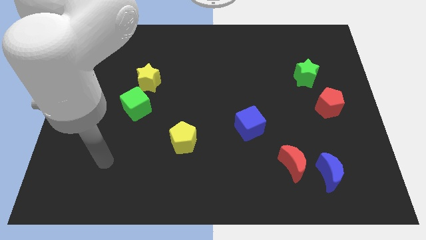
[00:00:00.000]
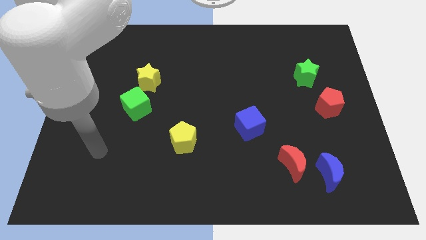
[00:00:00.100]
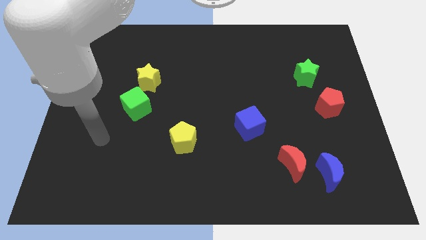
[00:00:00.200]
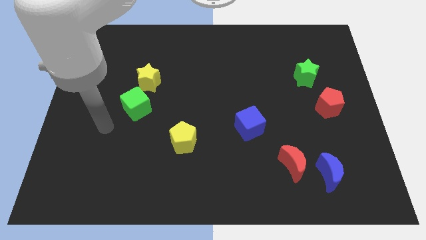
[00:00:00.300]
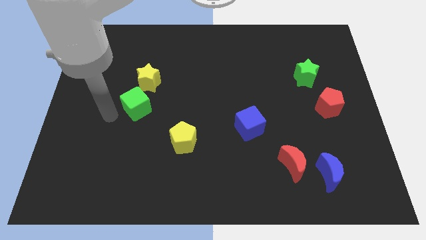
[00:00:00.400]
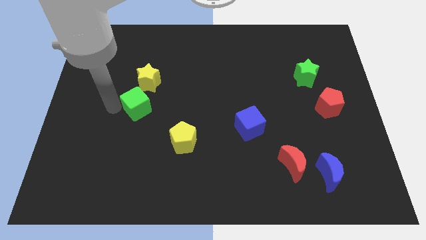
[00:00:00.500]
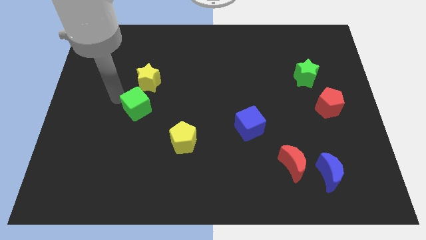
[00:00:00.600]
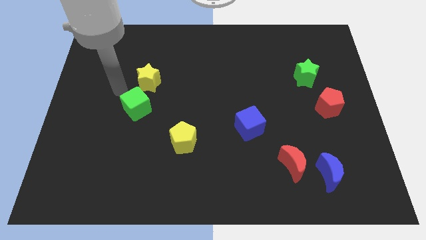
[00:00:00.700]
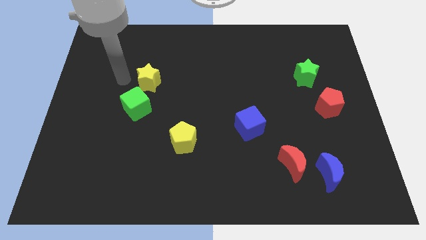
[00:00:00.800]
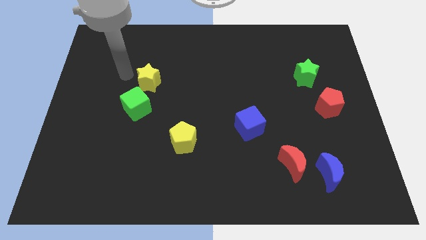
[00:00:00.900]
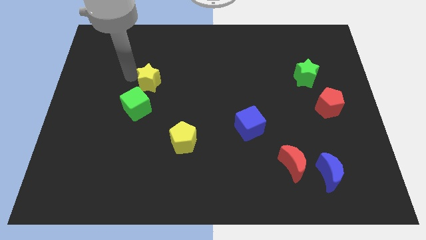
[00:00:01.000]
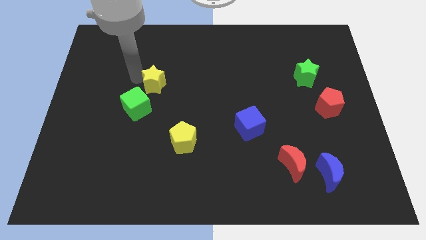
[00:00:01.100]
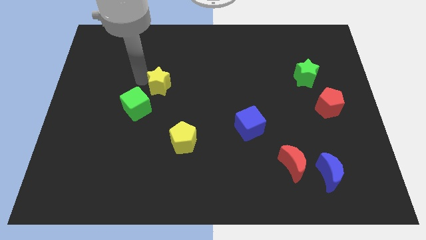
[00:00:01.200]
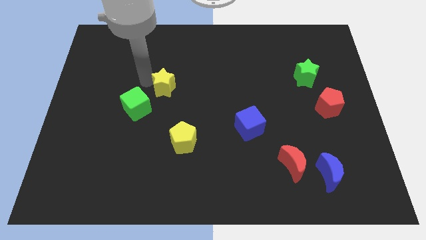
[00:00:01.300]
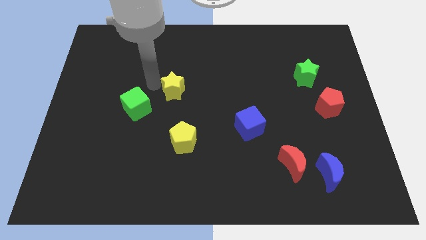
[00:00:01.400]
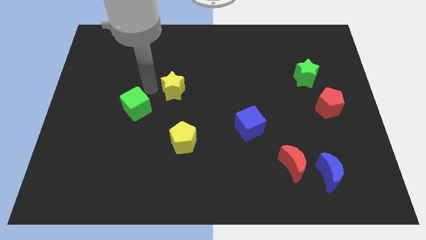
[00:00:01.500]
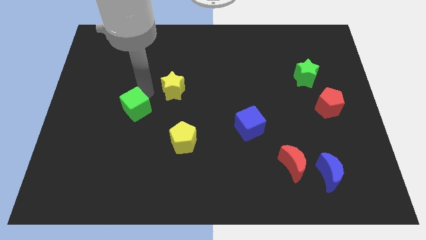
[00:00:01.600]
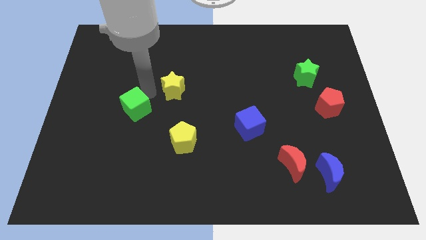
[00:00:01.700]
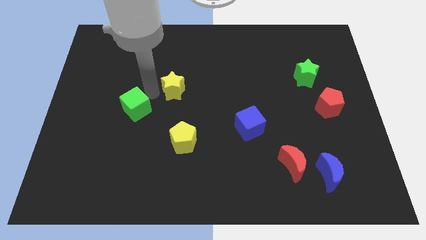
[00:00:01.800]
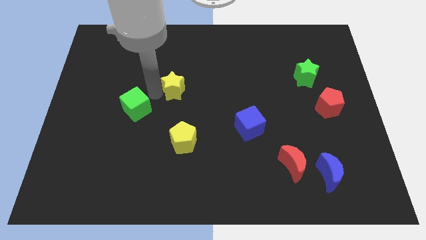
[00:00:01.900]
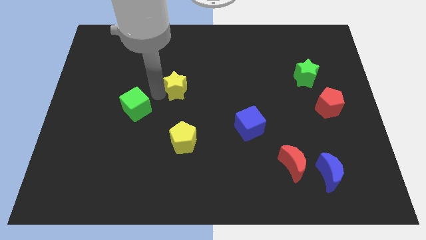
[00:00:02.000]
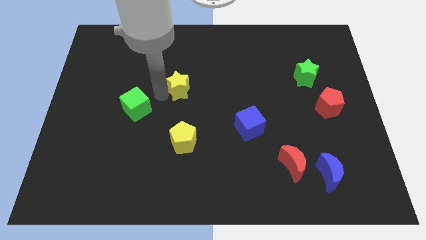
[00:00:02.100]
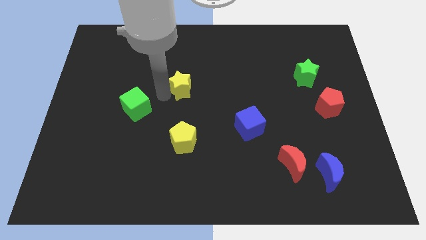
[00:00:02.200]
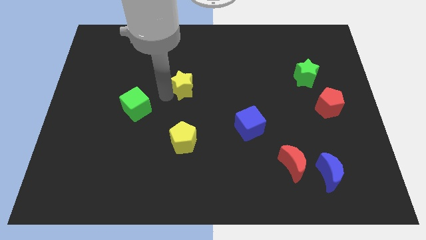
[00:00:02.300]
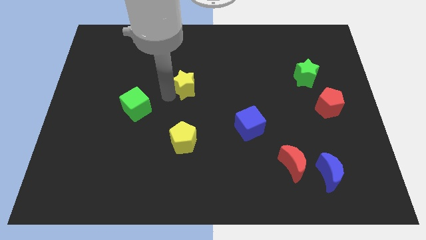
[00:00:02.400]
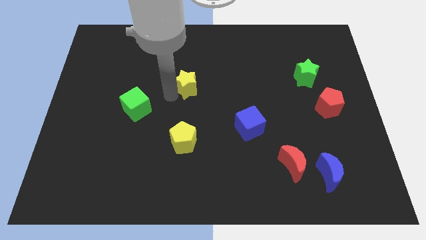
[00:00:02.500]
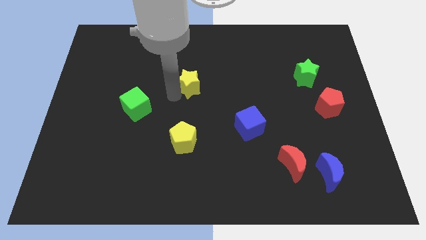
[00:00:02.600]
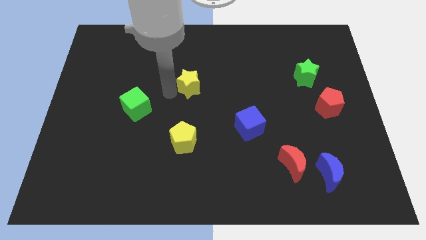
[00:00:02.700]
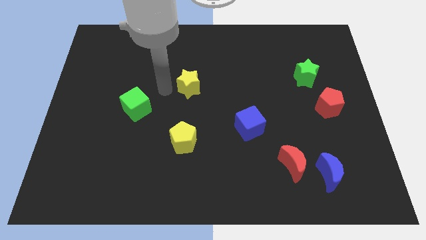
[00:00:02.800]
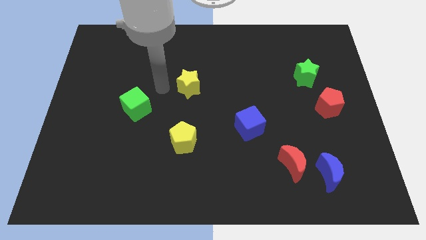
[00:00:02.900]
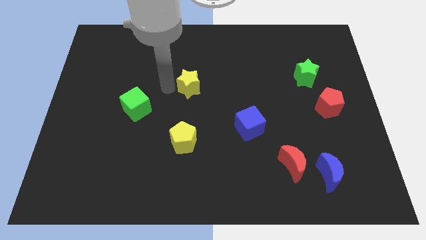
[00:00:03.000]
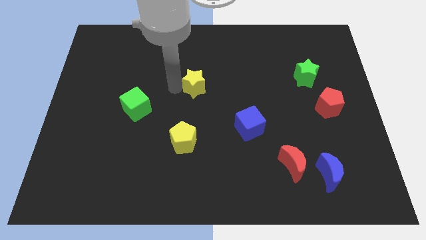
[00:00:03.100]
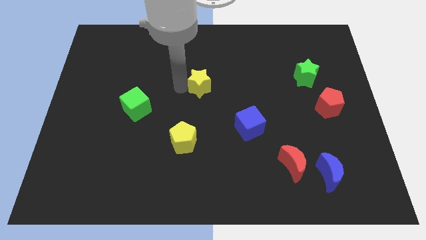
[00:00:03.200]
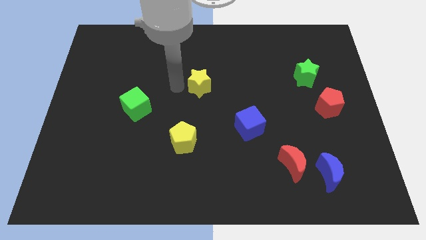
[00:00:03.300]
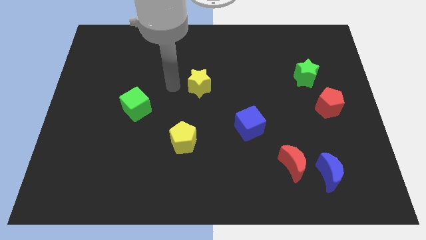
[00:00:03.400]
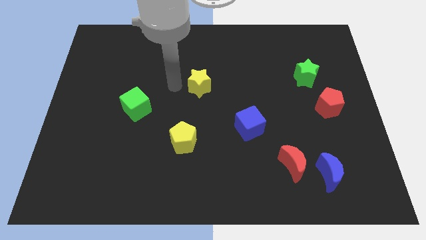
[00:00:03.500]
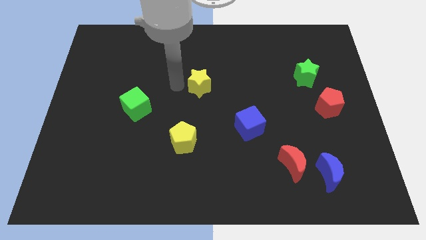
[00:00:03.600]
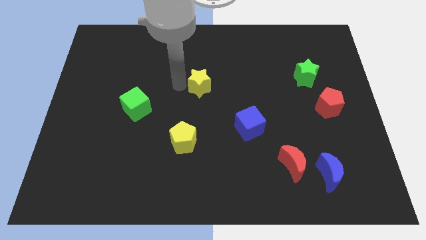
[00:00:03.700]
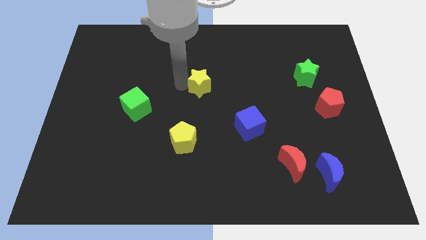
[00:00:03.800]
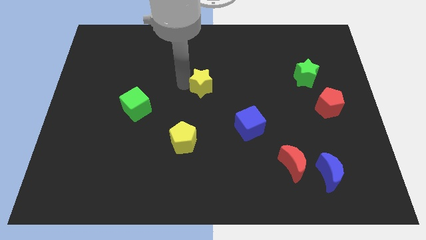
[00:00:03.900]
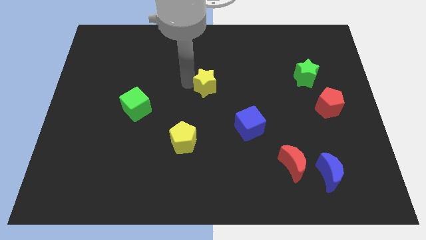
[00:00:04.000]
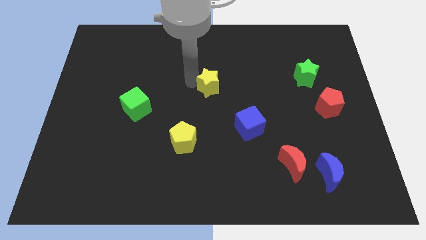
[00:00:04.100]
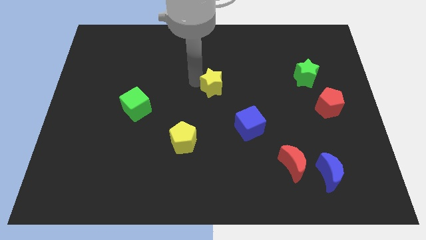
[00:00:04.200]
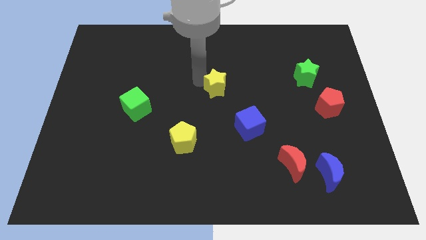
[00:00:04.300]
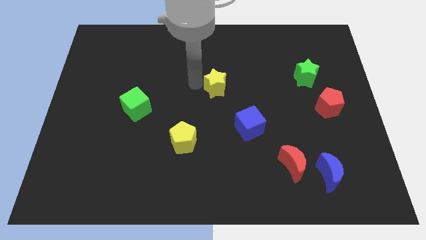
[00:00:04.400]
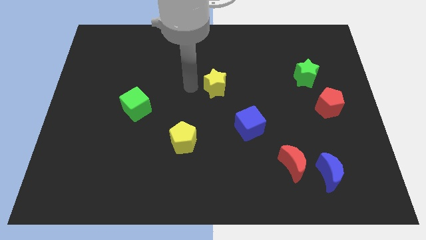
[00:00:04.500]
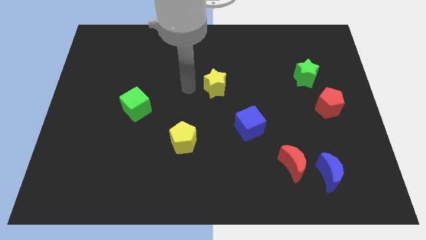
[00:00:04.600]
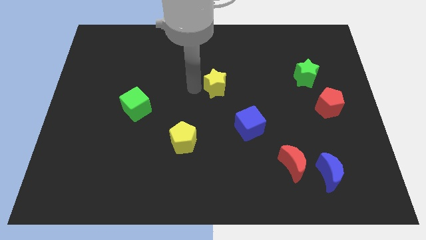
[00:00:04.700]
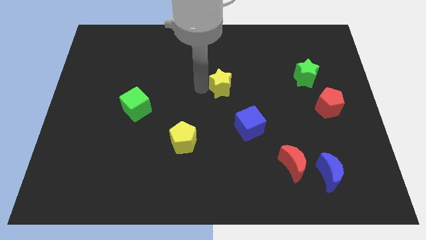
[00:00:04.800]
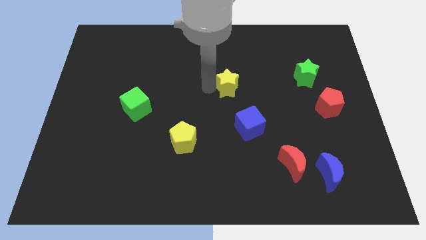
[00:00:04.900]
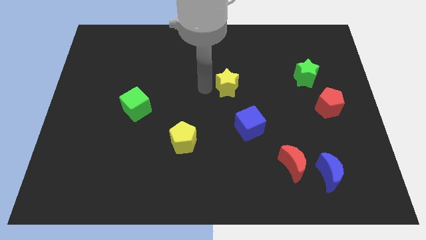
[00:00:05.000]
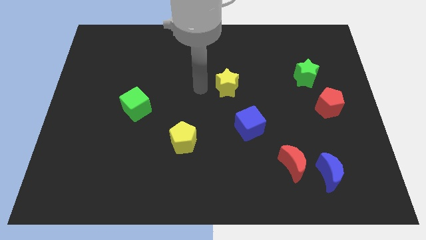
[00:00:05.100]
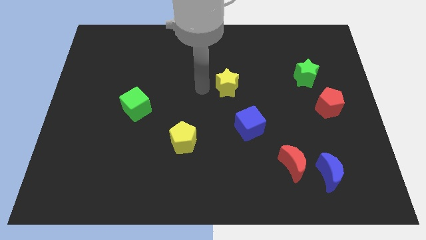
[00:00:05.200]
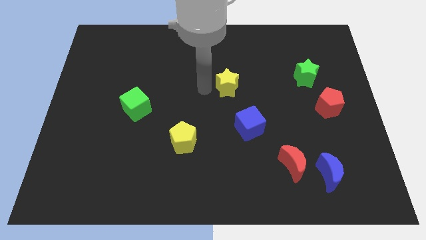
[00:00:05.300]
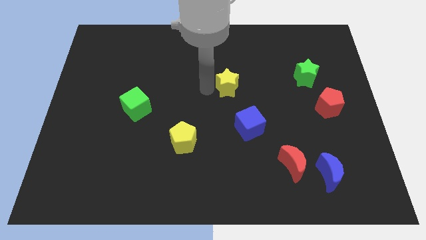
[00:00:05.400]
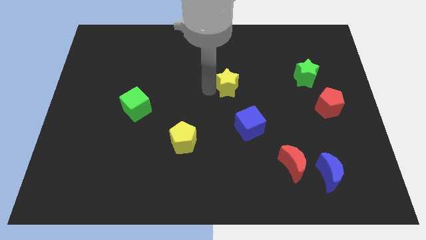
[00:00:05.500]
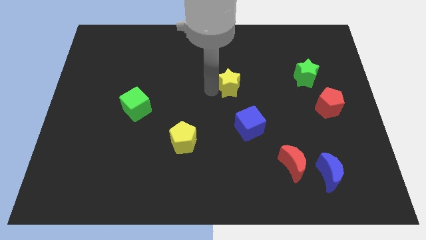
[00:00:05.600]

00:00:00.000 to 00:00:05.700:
slide the yellow star right

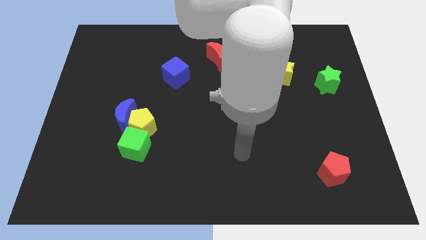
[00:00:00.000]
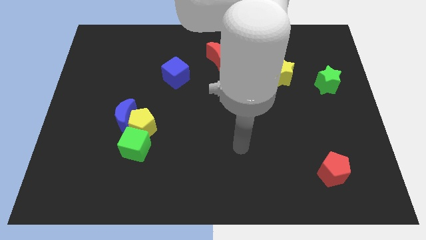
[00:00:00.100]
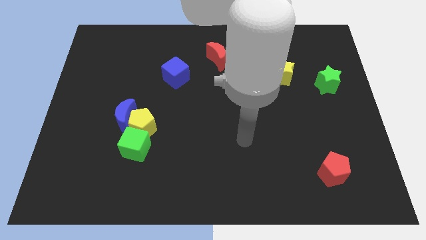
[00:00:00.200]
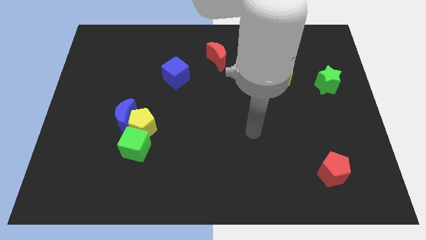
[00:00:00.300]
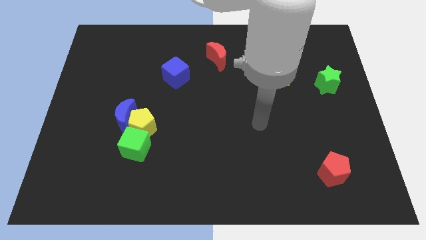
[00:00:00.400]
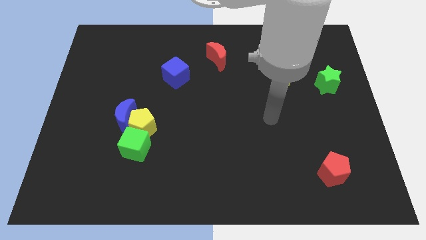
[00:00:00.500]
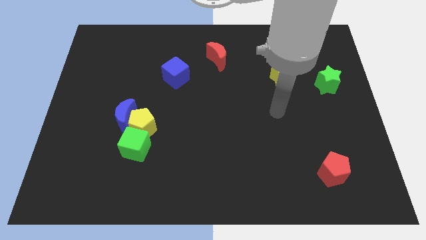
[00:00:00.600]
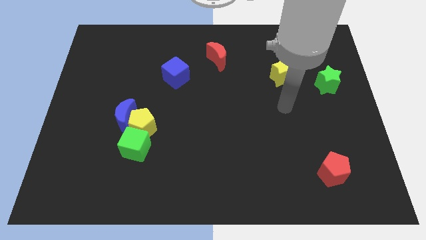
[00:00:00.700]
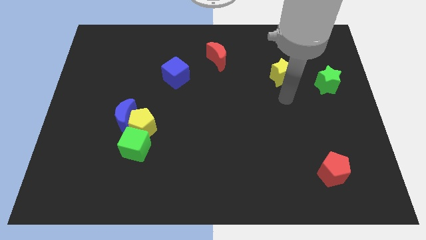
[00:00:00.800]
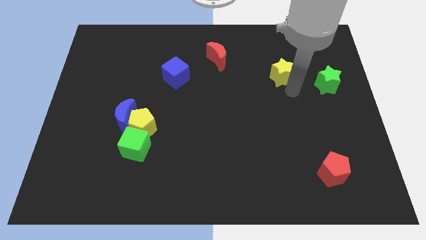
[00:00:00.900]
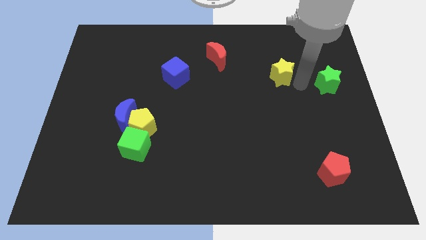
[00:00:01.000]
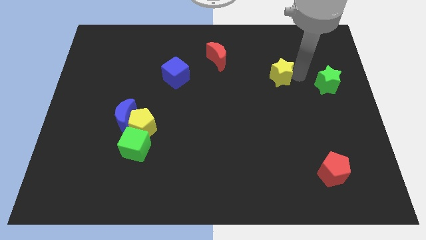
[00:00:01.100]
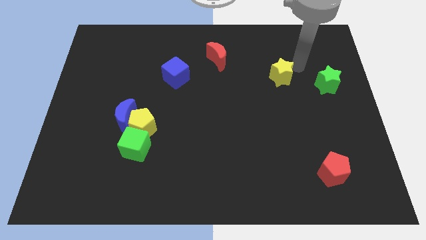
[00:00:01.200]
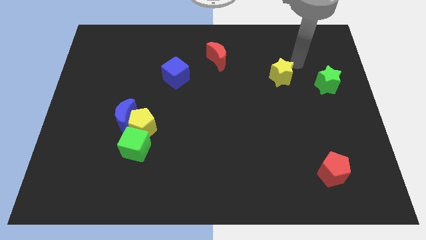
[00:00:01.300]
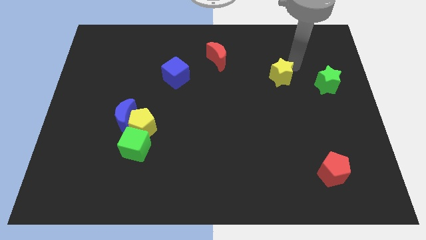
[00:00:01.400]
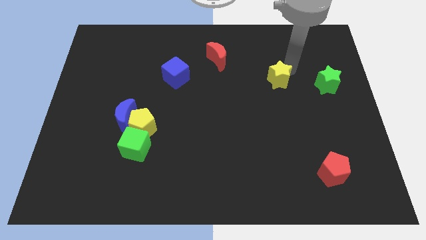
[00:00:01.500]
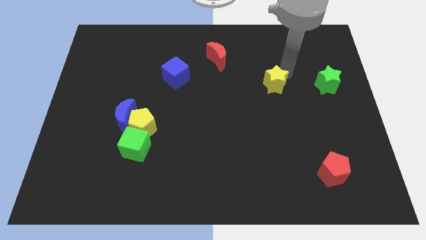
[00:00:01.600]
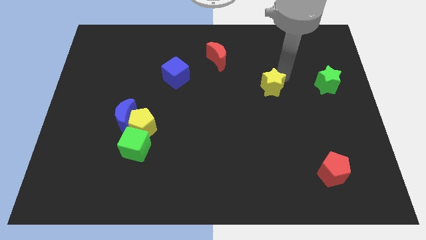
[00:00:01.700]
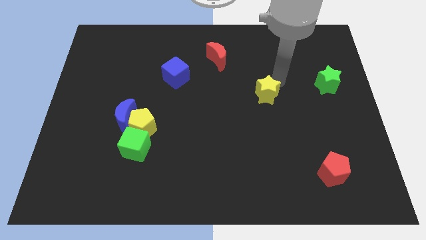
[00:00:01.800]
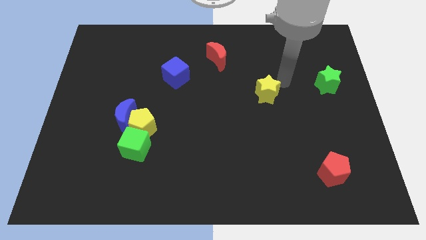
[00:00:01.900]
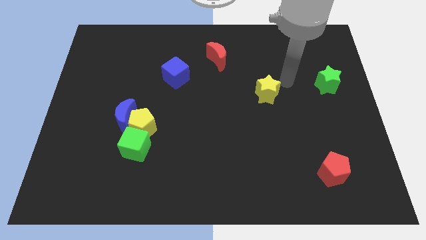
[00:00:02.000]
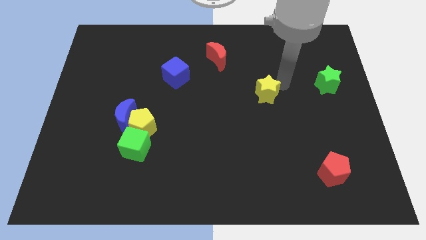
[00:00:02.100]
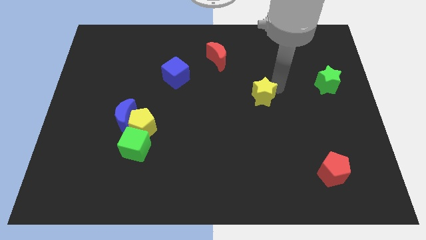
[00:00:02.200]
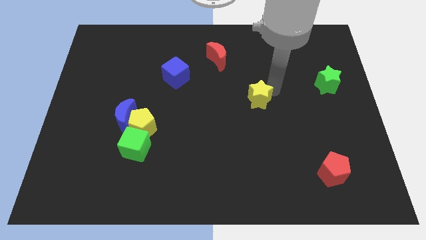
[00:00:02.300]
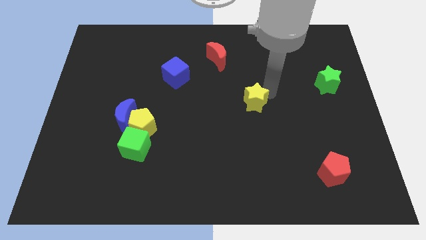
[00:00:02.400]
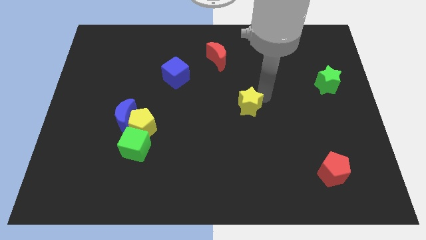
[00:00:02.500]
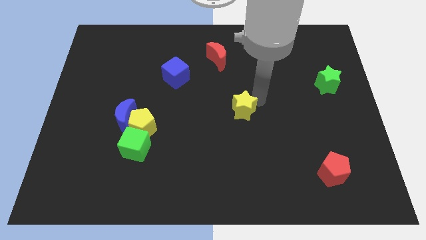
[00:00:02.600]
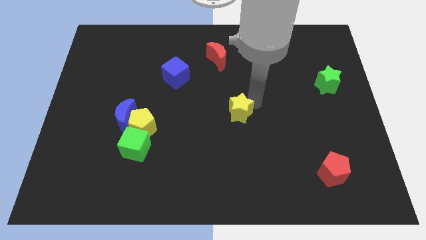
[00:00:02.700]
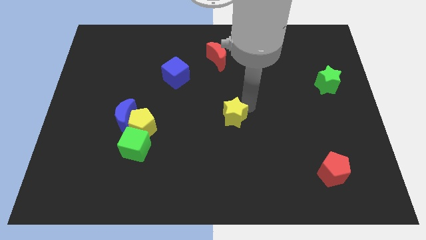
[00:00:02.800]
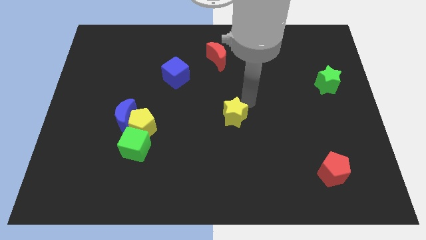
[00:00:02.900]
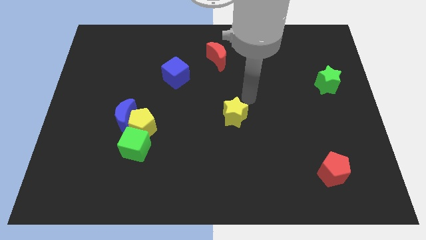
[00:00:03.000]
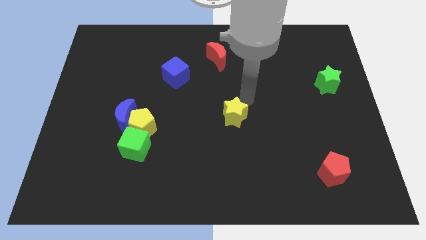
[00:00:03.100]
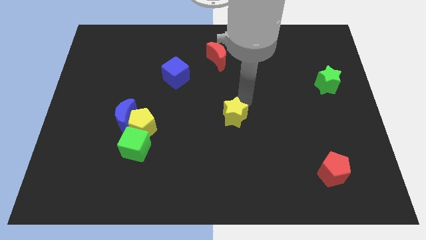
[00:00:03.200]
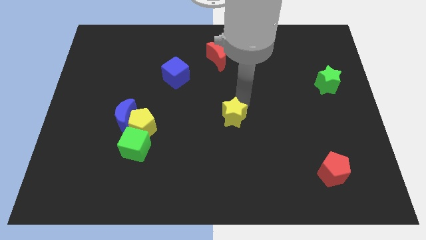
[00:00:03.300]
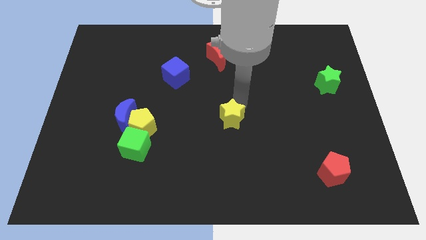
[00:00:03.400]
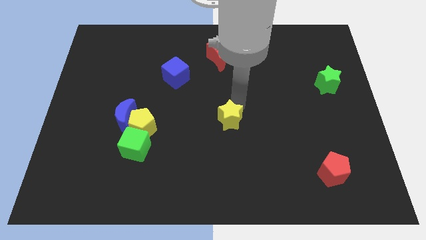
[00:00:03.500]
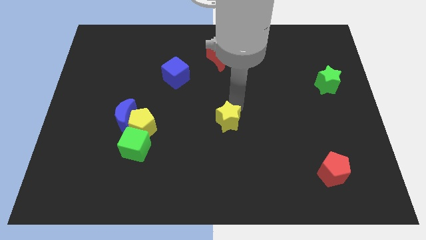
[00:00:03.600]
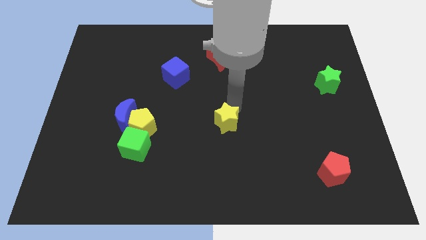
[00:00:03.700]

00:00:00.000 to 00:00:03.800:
slide the yellow star down and left
